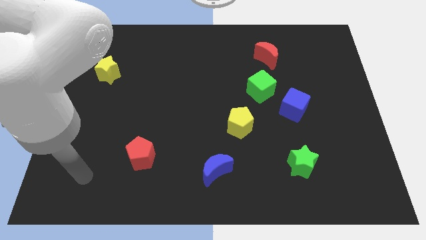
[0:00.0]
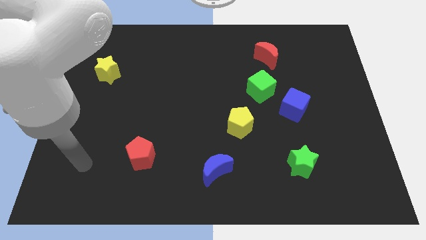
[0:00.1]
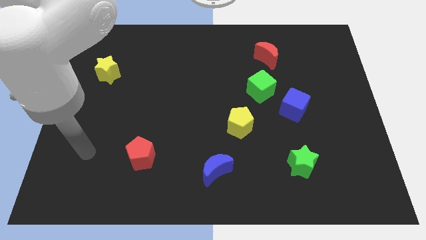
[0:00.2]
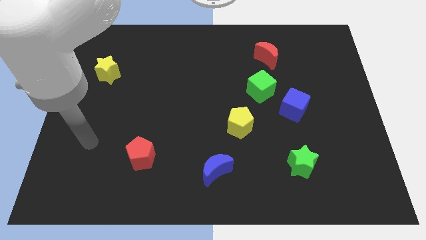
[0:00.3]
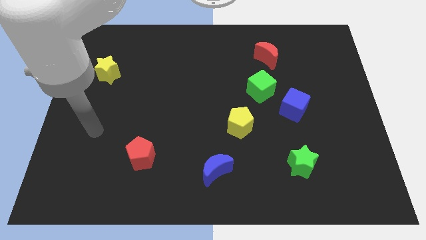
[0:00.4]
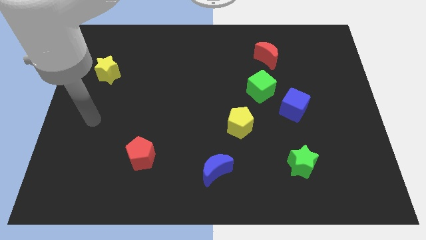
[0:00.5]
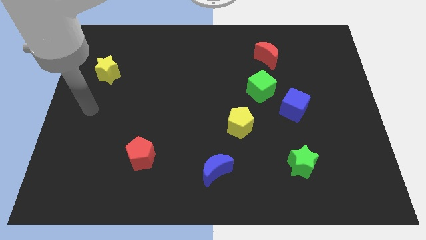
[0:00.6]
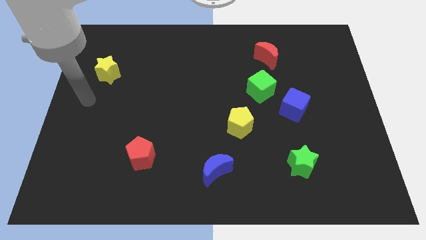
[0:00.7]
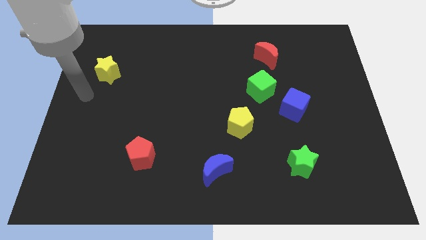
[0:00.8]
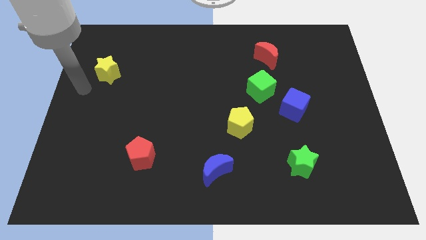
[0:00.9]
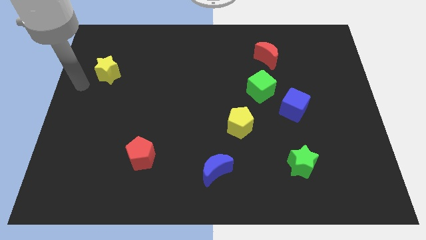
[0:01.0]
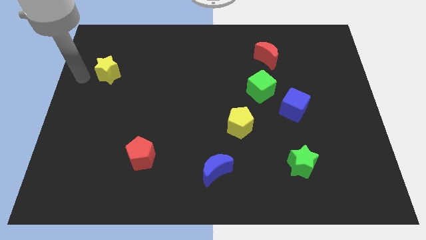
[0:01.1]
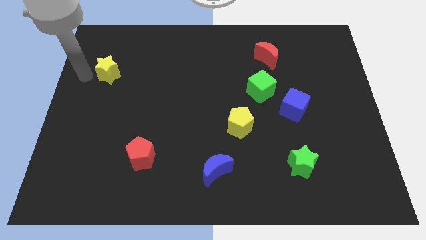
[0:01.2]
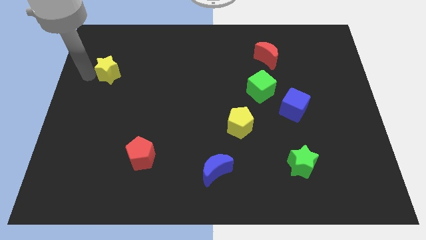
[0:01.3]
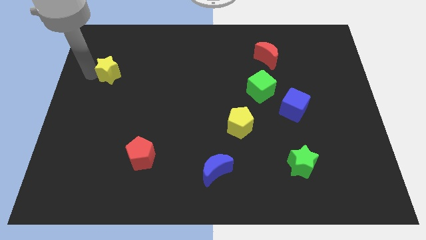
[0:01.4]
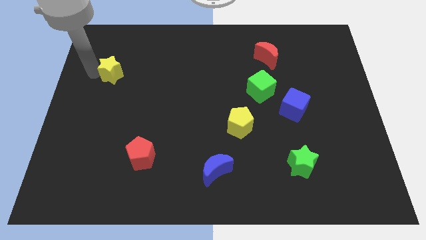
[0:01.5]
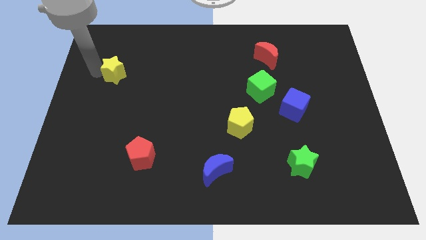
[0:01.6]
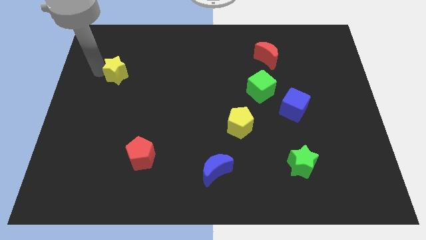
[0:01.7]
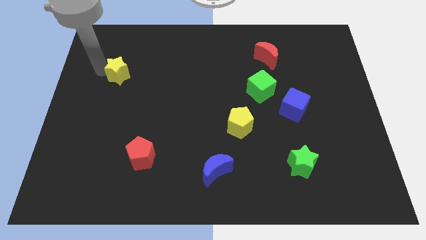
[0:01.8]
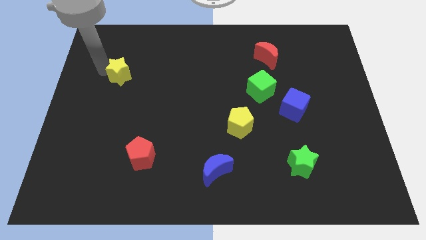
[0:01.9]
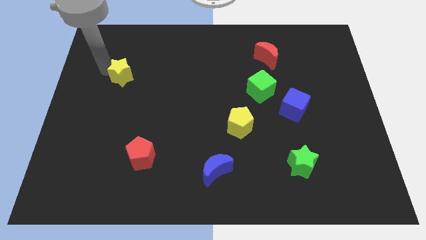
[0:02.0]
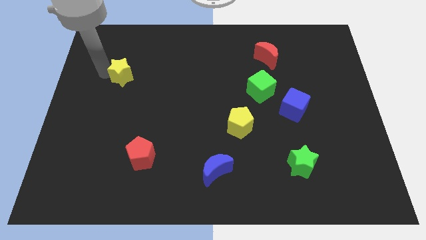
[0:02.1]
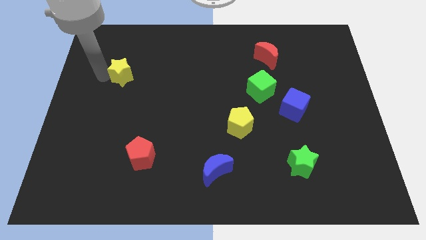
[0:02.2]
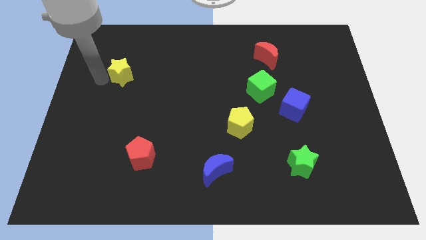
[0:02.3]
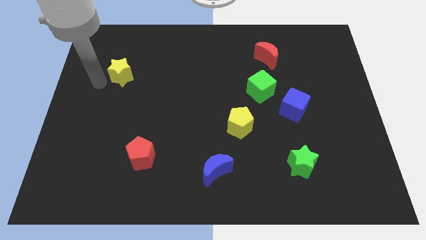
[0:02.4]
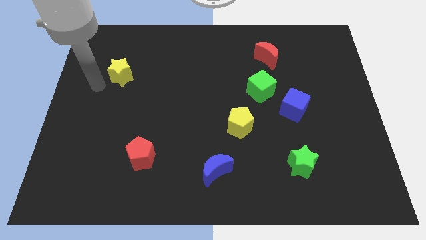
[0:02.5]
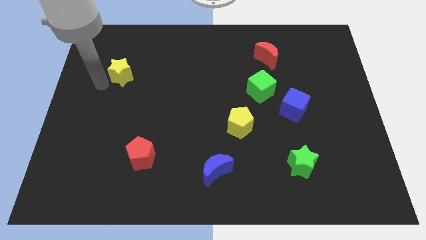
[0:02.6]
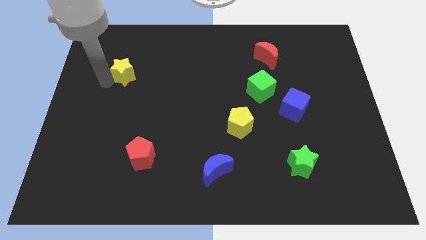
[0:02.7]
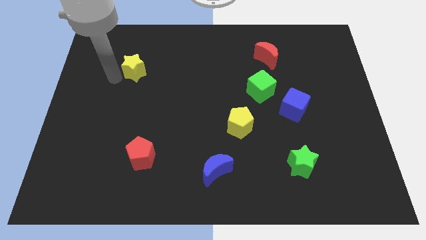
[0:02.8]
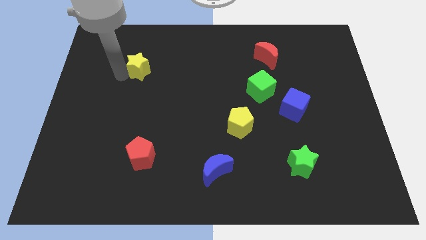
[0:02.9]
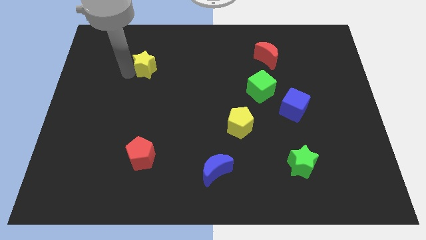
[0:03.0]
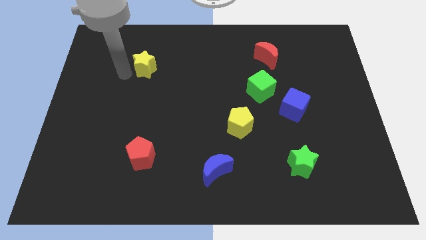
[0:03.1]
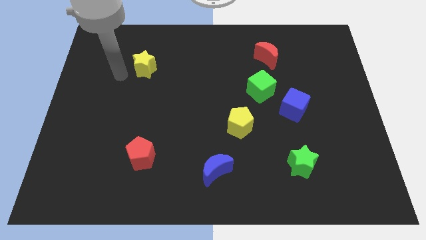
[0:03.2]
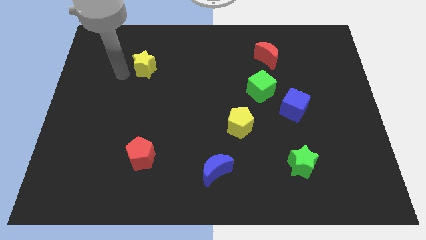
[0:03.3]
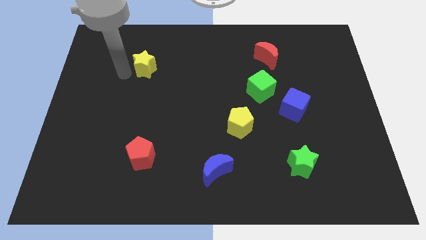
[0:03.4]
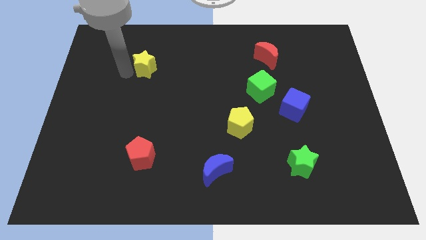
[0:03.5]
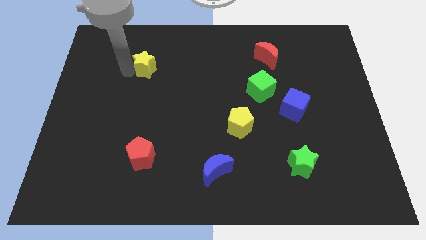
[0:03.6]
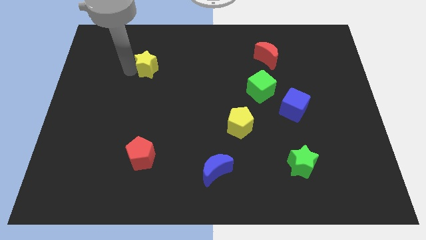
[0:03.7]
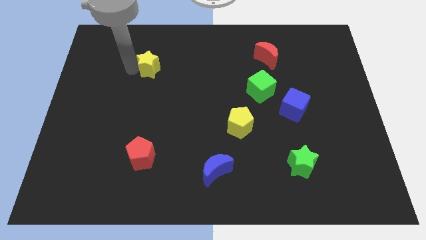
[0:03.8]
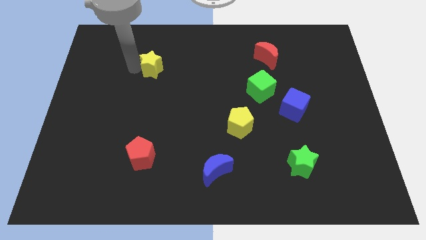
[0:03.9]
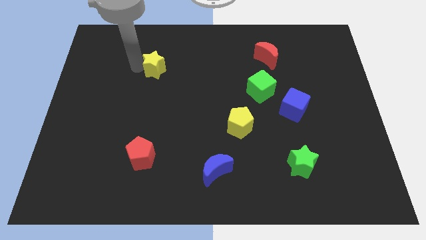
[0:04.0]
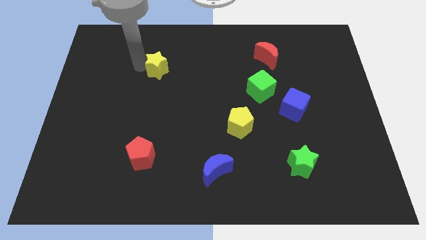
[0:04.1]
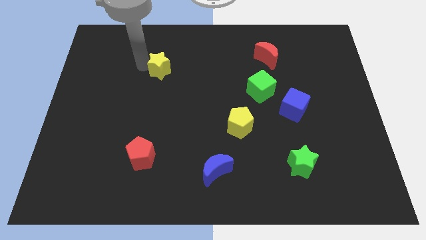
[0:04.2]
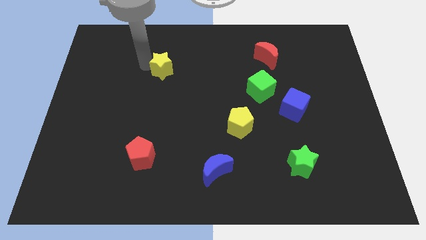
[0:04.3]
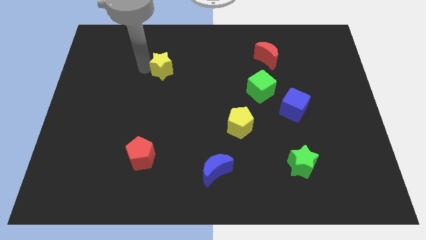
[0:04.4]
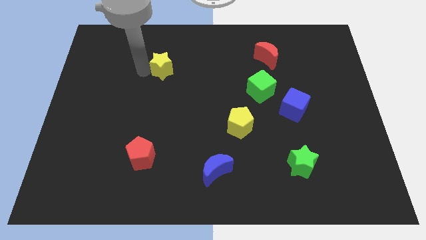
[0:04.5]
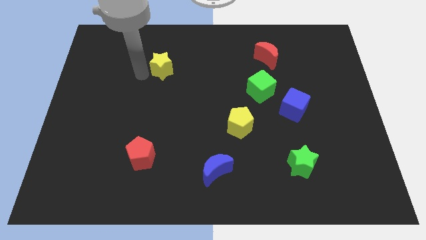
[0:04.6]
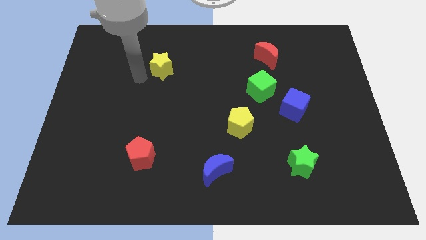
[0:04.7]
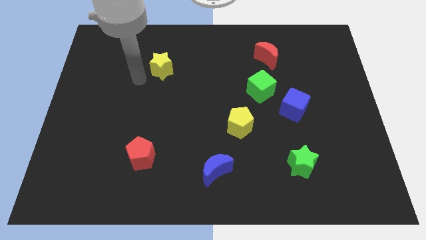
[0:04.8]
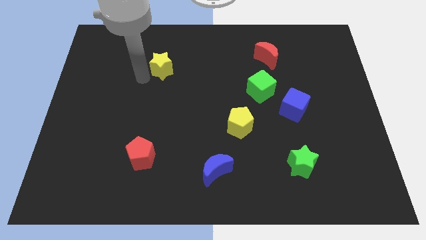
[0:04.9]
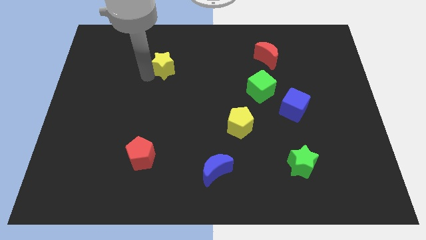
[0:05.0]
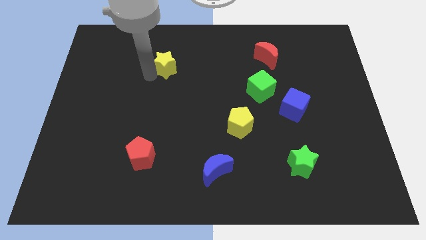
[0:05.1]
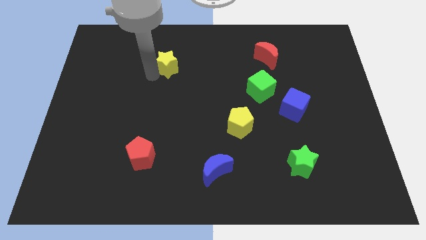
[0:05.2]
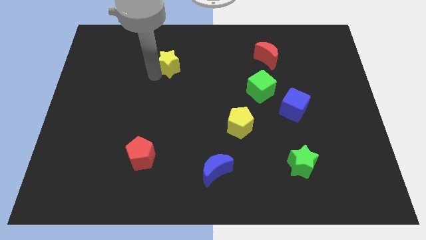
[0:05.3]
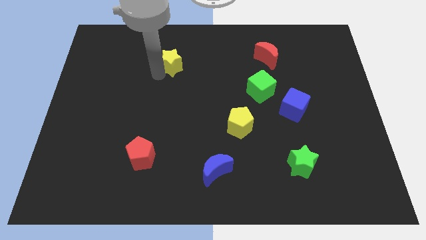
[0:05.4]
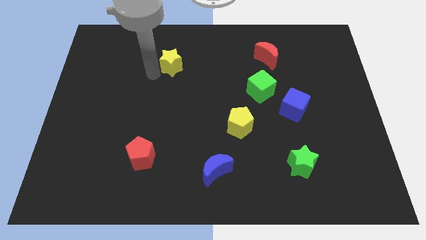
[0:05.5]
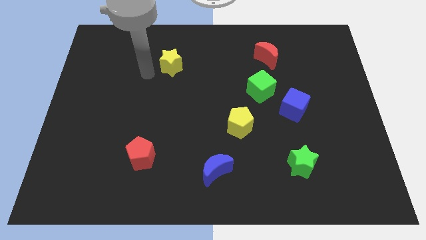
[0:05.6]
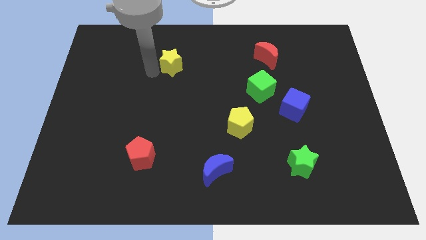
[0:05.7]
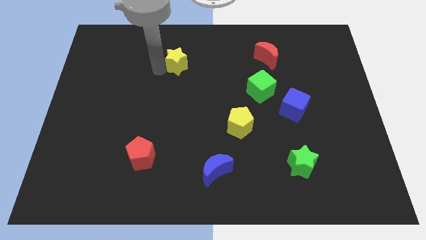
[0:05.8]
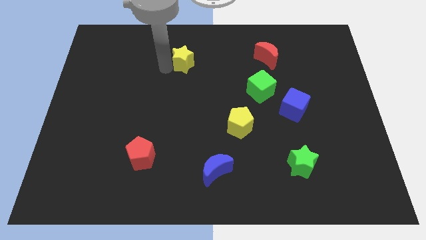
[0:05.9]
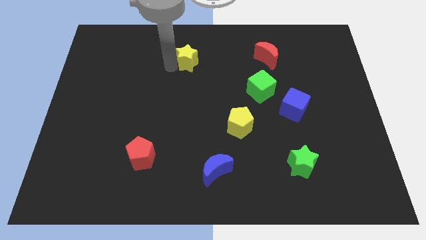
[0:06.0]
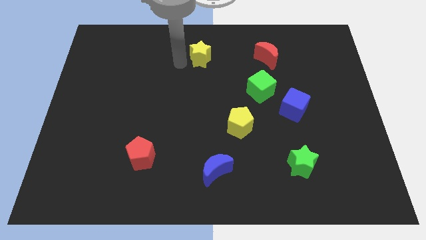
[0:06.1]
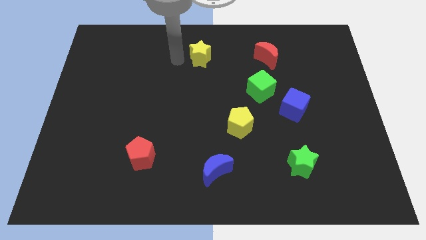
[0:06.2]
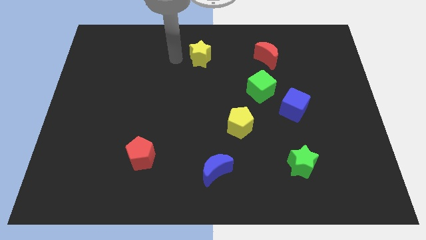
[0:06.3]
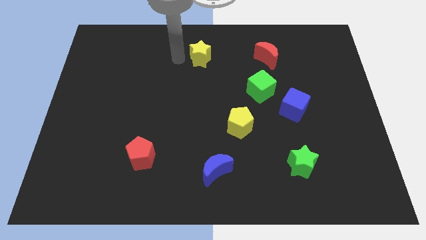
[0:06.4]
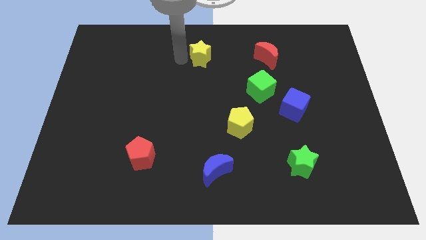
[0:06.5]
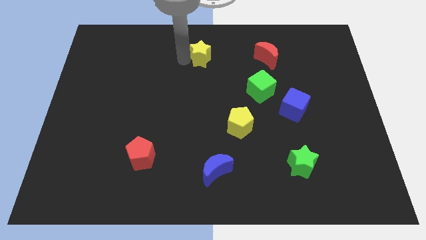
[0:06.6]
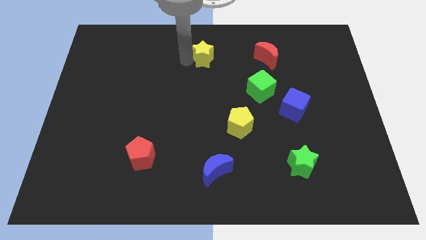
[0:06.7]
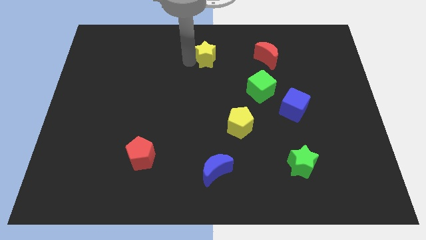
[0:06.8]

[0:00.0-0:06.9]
put the yellow star just left of the red moon

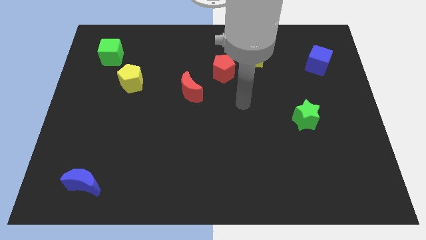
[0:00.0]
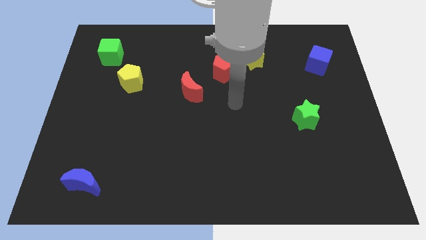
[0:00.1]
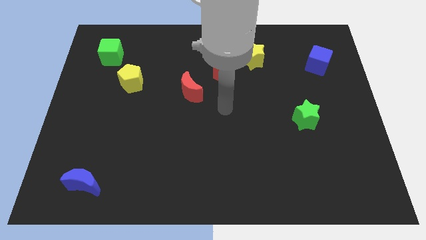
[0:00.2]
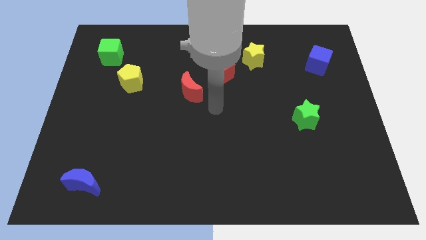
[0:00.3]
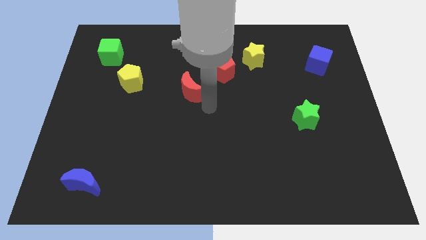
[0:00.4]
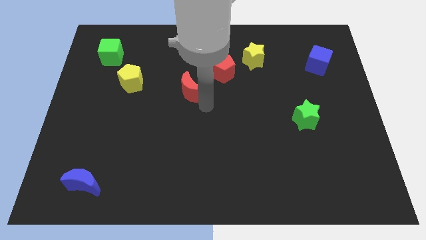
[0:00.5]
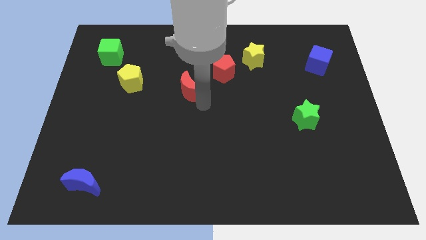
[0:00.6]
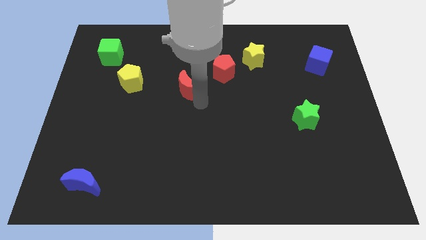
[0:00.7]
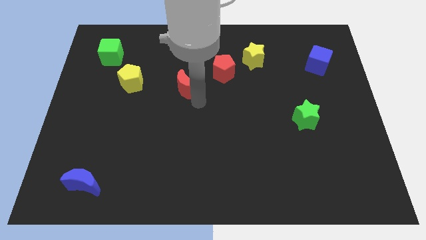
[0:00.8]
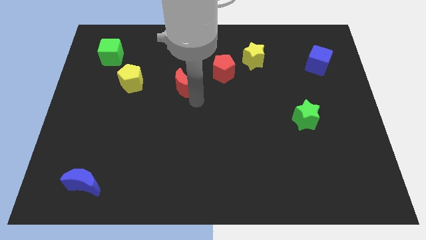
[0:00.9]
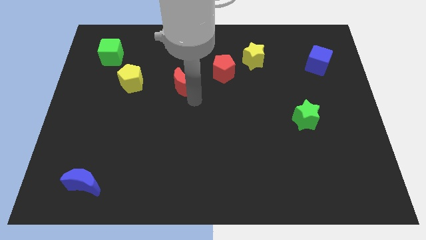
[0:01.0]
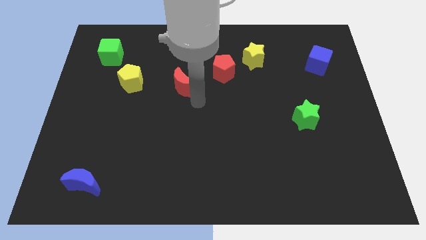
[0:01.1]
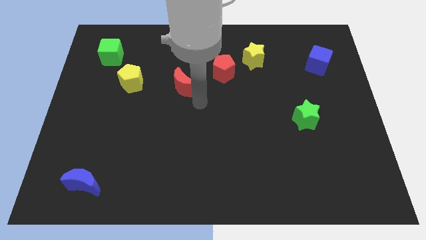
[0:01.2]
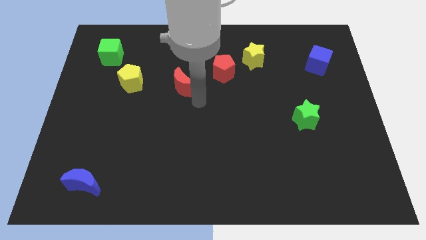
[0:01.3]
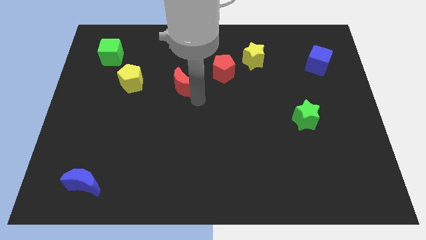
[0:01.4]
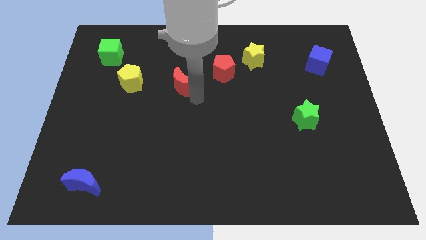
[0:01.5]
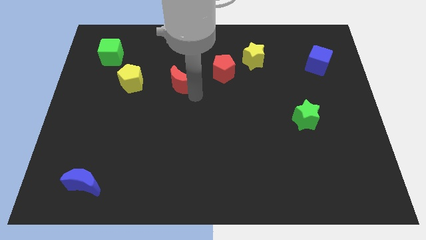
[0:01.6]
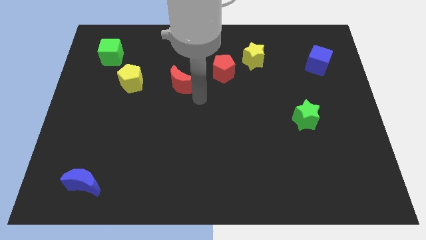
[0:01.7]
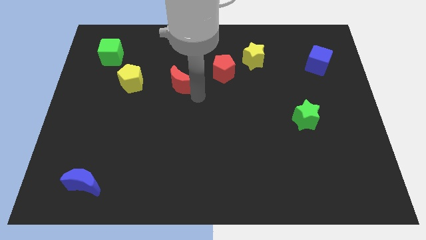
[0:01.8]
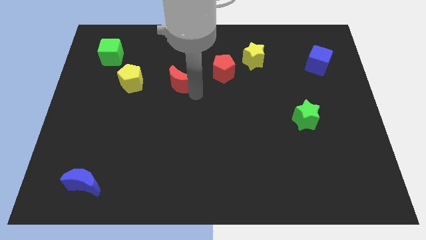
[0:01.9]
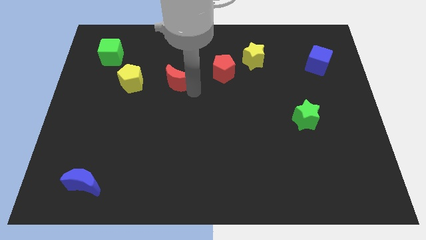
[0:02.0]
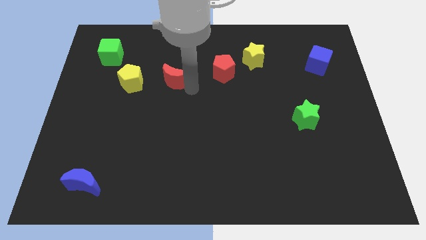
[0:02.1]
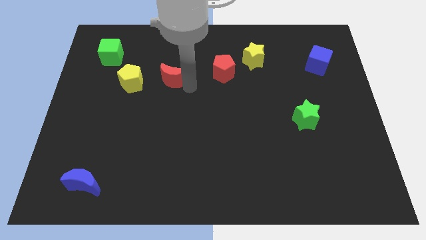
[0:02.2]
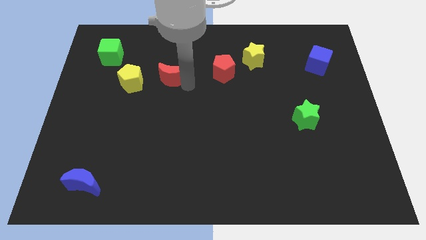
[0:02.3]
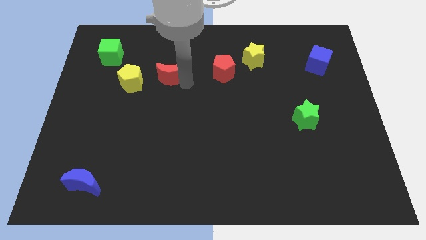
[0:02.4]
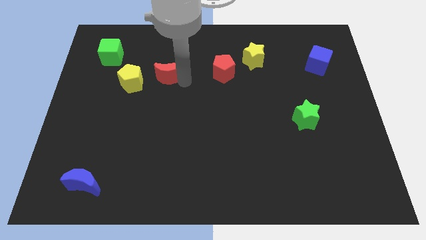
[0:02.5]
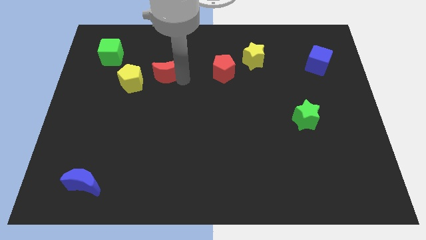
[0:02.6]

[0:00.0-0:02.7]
put the red moon to the top right of the yellow pentagon
